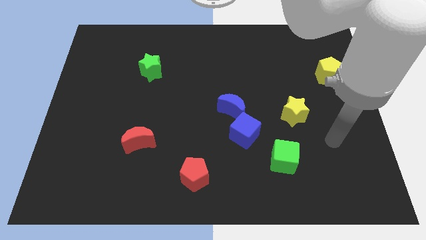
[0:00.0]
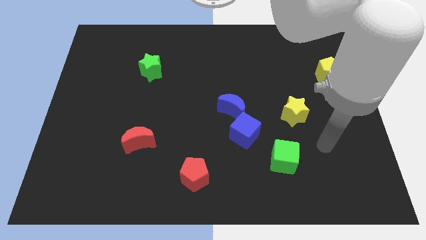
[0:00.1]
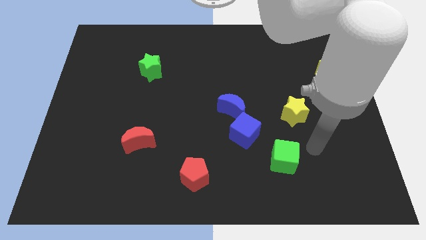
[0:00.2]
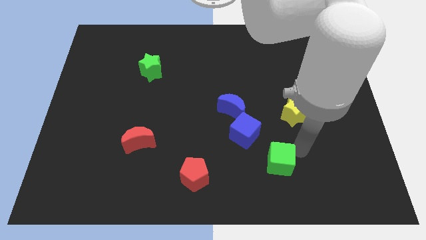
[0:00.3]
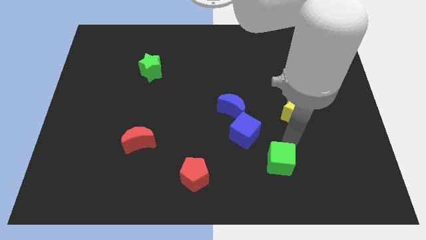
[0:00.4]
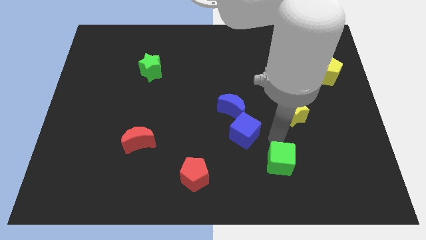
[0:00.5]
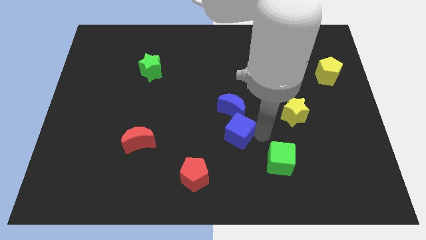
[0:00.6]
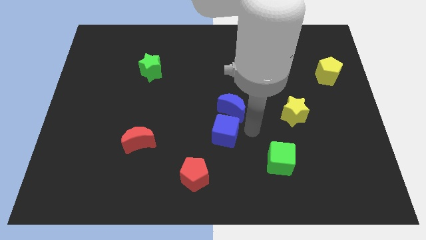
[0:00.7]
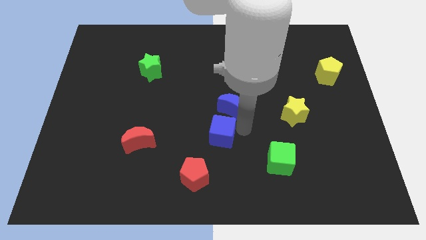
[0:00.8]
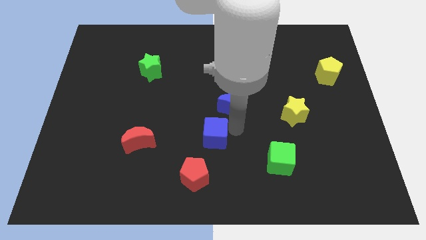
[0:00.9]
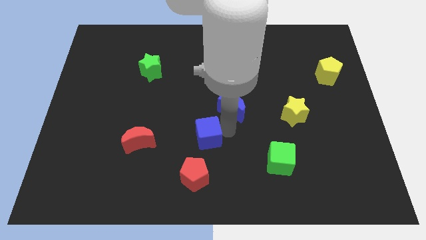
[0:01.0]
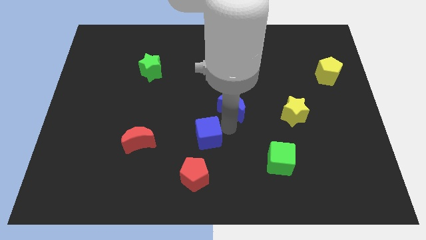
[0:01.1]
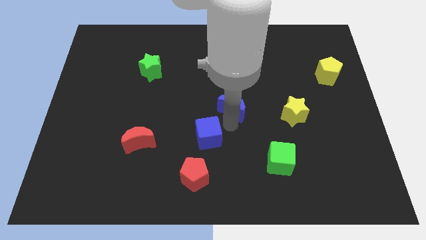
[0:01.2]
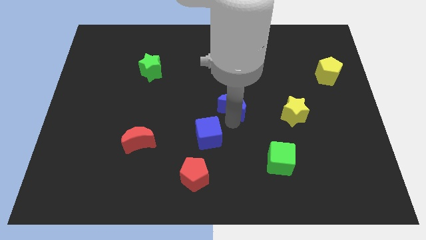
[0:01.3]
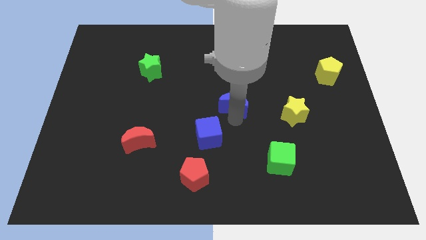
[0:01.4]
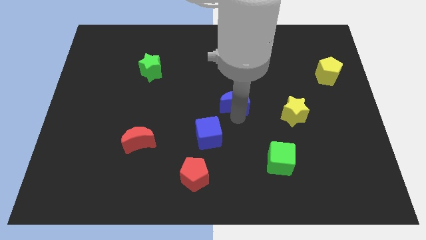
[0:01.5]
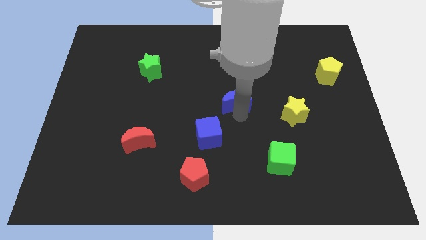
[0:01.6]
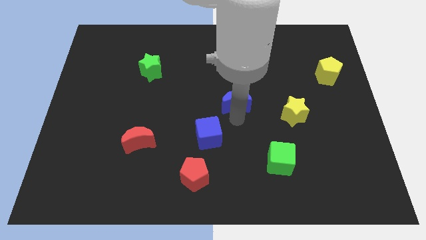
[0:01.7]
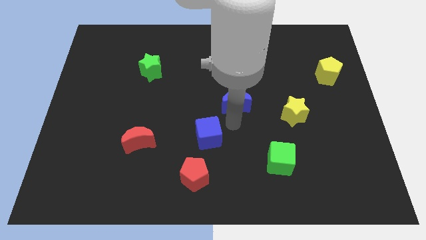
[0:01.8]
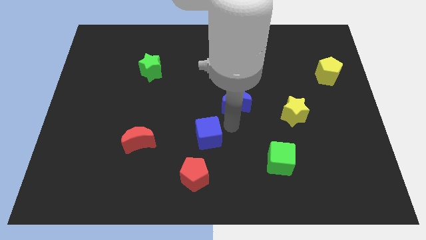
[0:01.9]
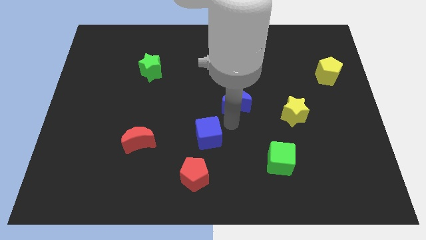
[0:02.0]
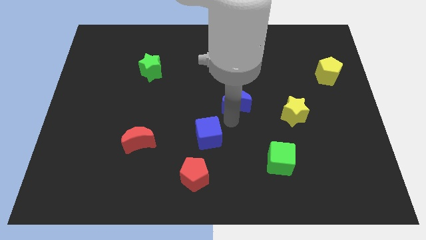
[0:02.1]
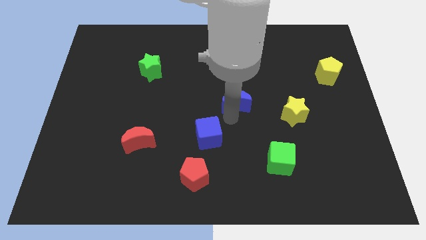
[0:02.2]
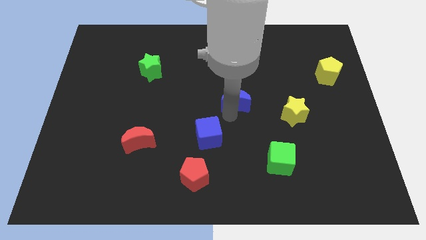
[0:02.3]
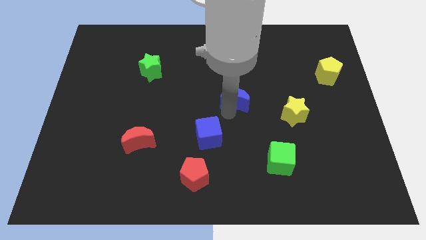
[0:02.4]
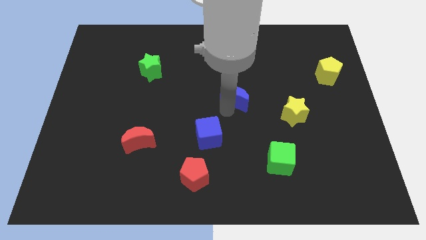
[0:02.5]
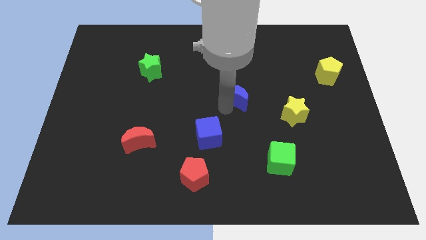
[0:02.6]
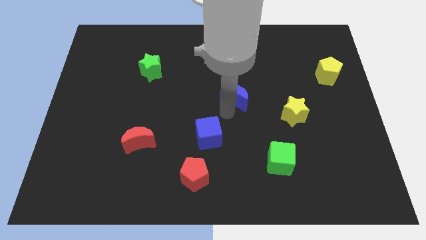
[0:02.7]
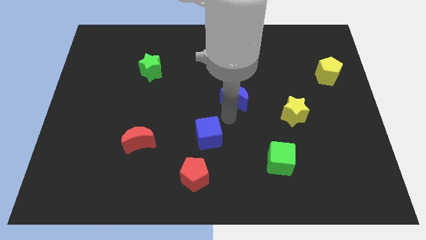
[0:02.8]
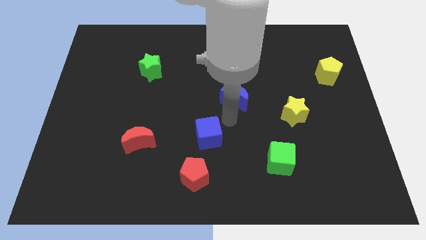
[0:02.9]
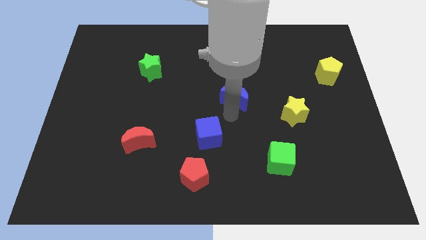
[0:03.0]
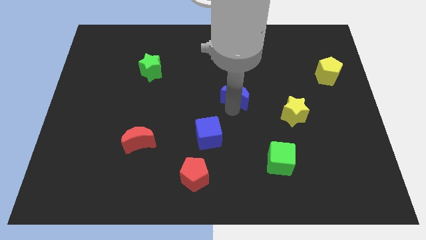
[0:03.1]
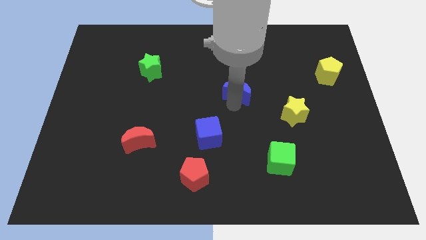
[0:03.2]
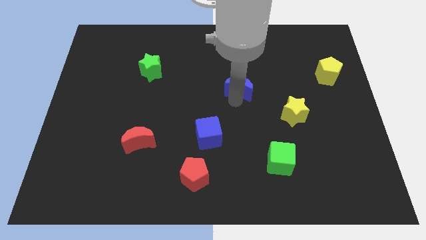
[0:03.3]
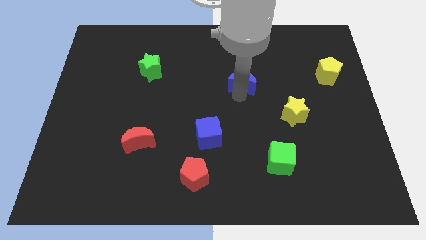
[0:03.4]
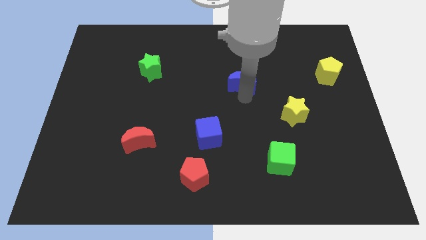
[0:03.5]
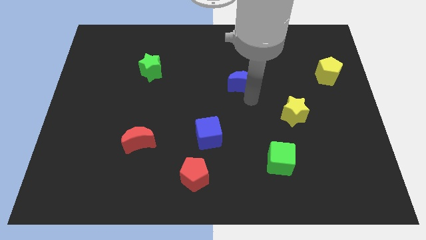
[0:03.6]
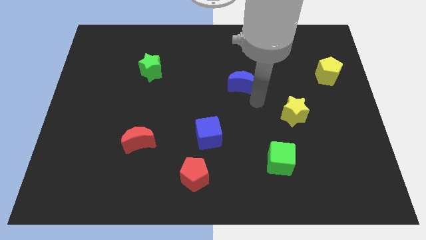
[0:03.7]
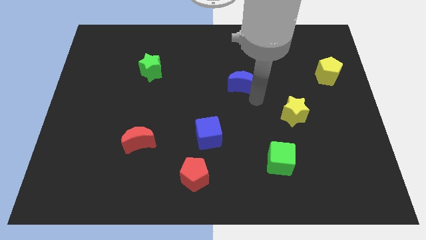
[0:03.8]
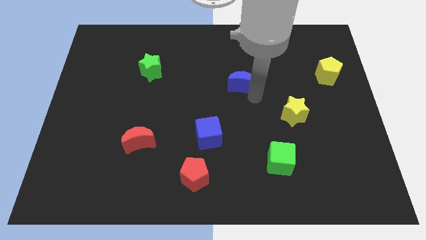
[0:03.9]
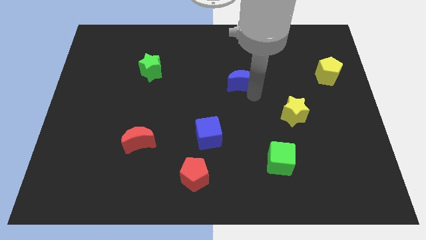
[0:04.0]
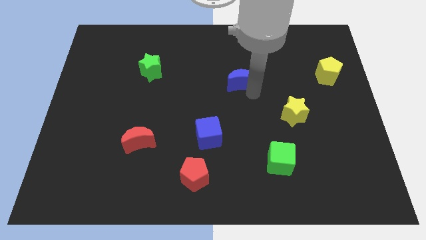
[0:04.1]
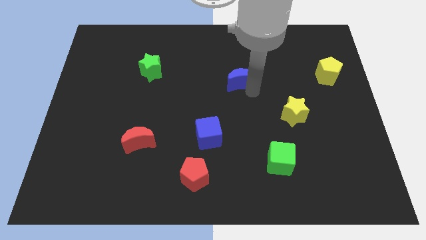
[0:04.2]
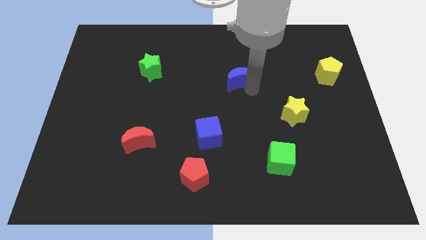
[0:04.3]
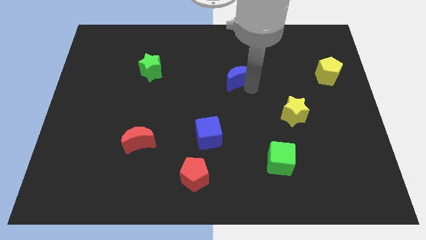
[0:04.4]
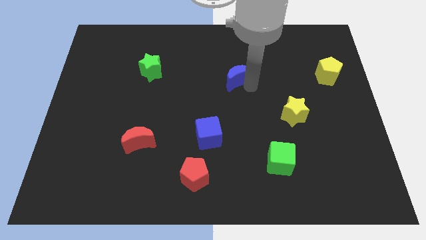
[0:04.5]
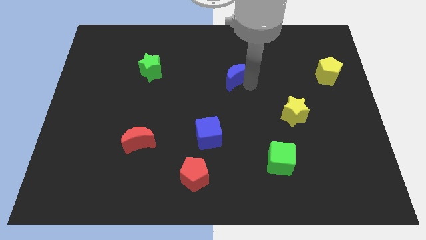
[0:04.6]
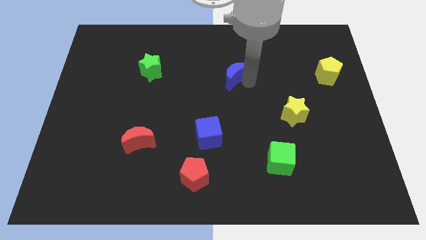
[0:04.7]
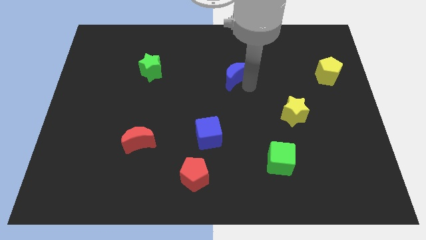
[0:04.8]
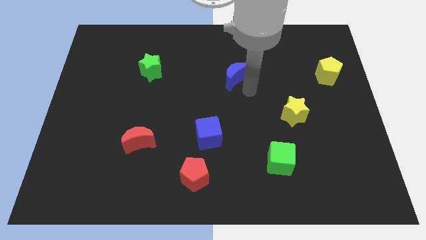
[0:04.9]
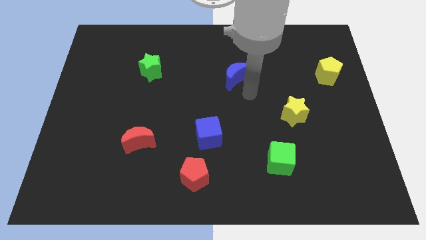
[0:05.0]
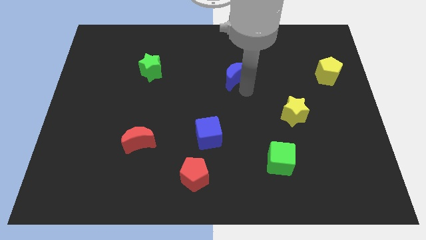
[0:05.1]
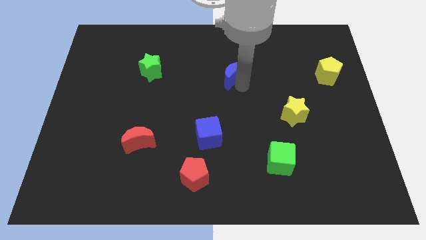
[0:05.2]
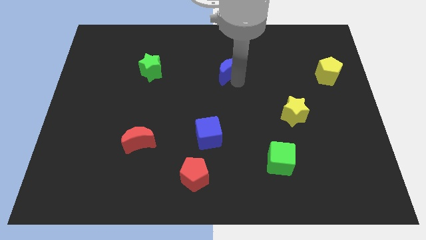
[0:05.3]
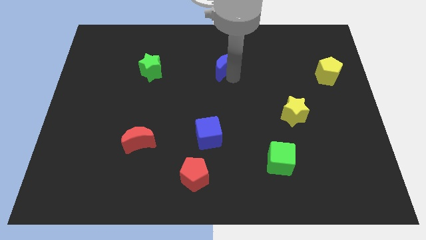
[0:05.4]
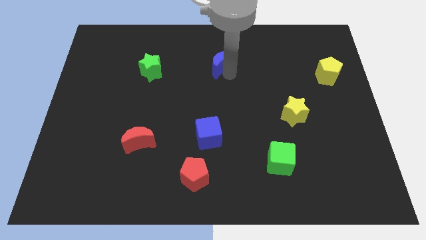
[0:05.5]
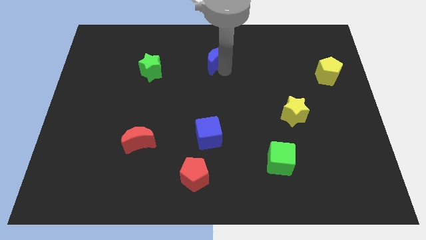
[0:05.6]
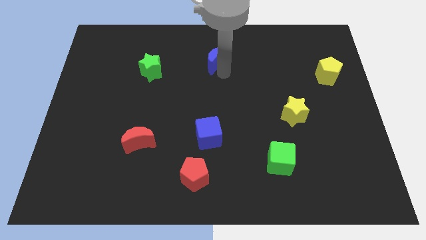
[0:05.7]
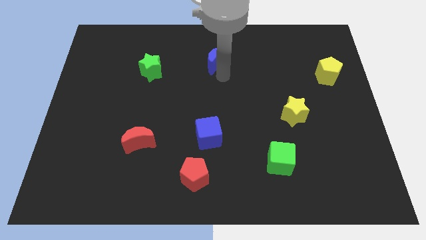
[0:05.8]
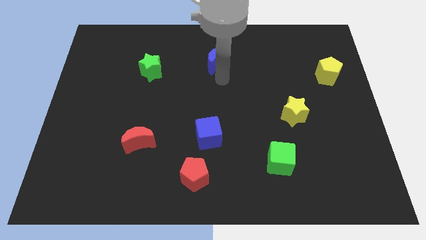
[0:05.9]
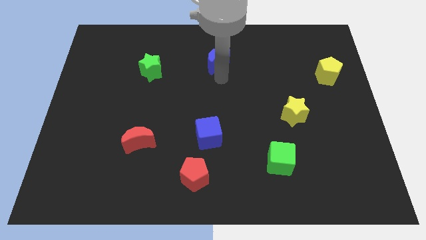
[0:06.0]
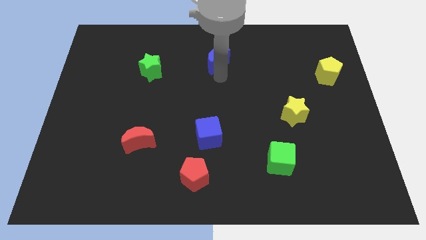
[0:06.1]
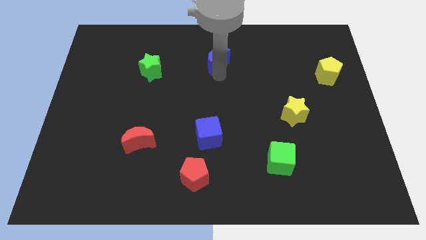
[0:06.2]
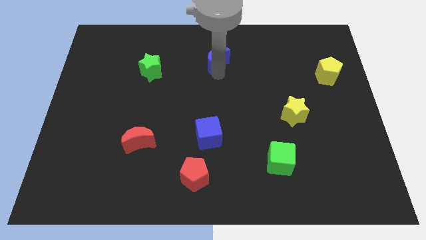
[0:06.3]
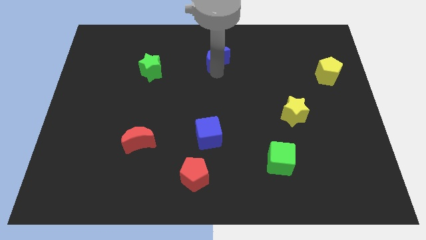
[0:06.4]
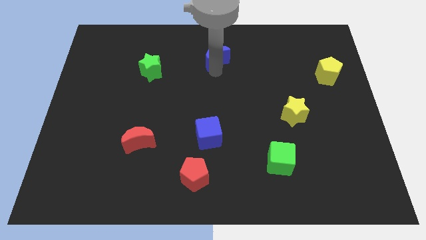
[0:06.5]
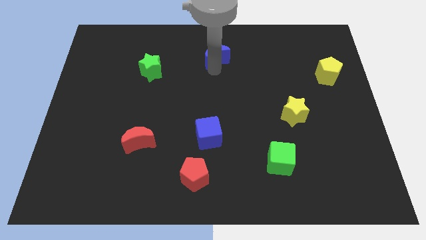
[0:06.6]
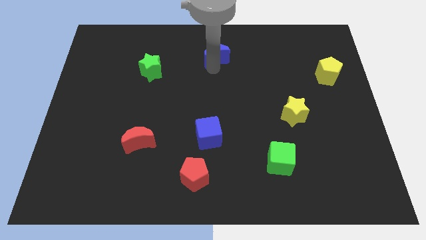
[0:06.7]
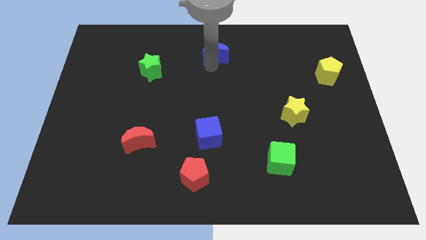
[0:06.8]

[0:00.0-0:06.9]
put the blue moon to the top side

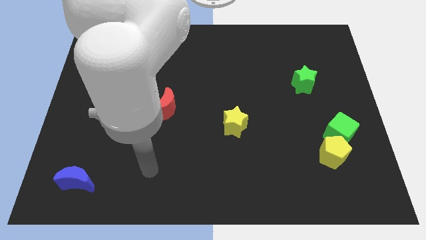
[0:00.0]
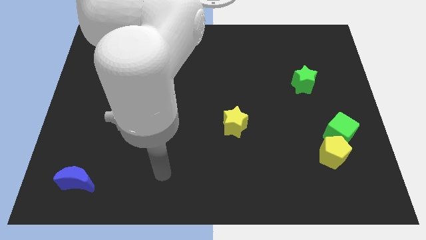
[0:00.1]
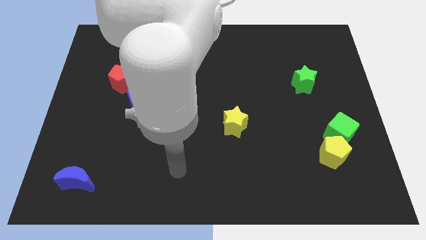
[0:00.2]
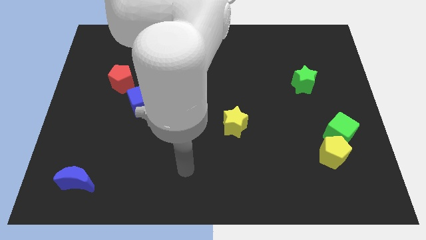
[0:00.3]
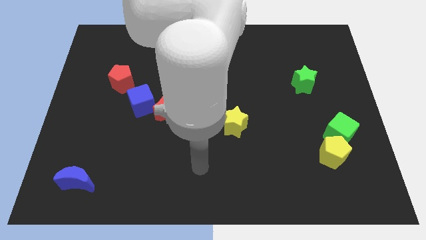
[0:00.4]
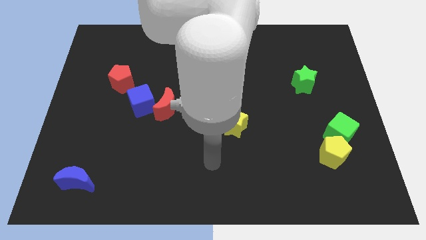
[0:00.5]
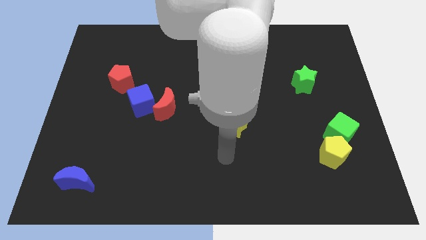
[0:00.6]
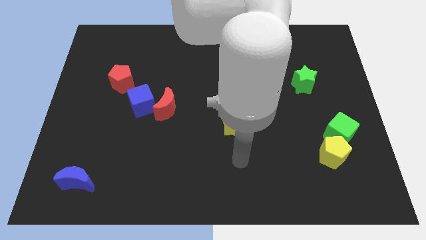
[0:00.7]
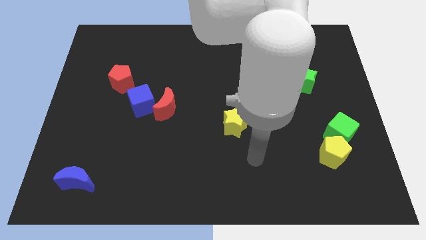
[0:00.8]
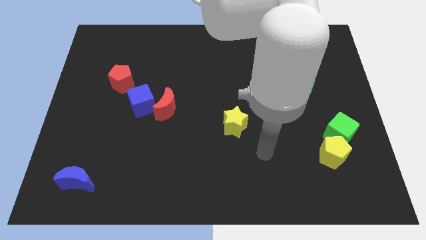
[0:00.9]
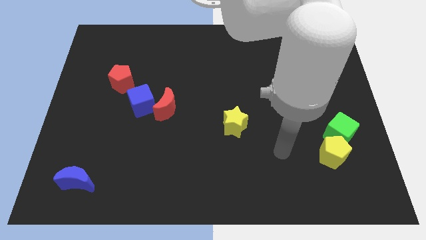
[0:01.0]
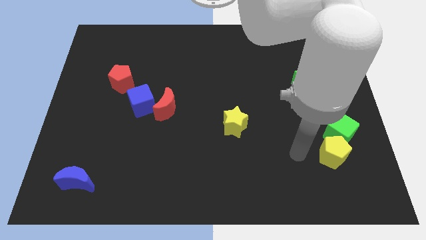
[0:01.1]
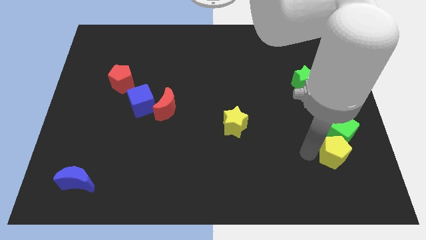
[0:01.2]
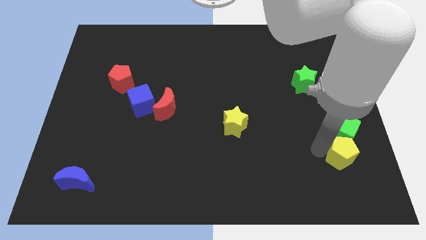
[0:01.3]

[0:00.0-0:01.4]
slide the green cube to the right side of the board
